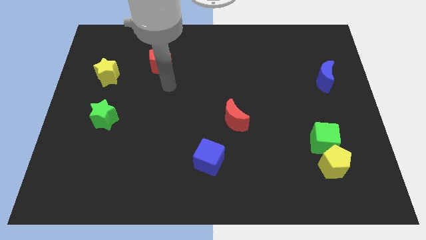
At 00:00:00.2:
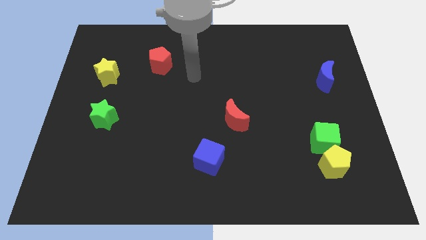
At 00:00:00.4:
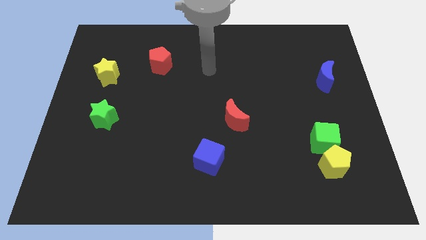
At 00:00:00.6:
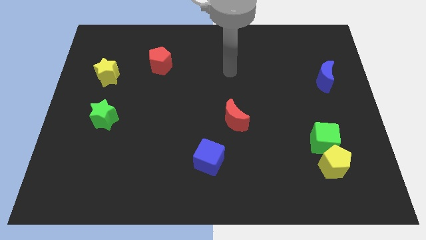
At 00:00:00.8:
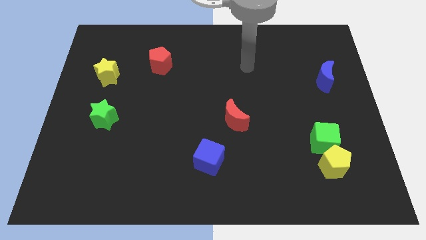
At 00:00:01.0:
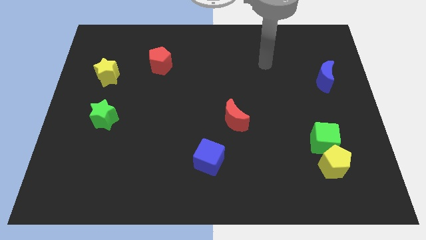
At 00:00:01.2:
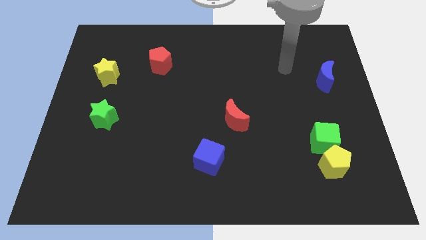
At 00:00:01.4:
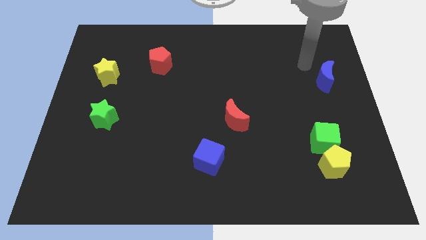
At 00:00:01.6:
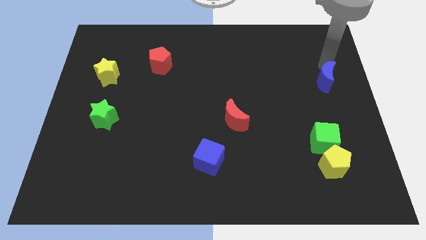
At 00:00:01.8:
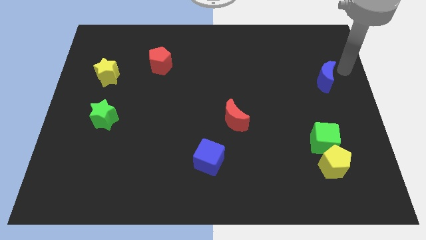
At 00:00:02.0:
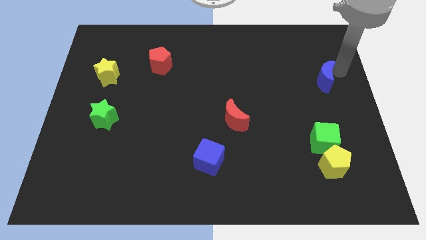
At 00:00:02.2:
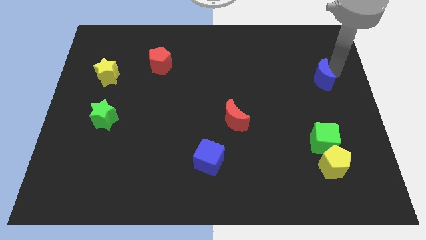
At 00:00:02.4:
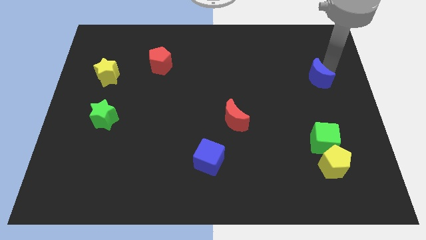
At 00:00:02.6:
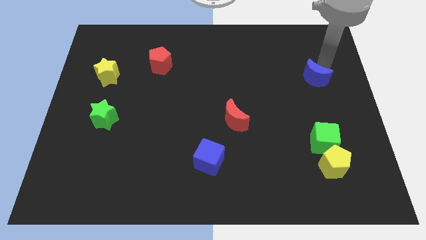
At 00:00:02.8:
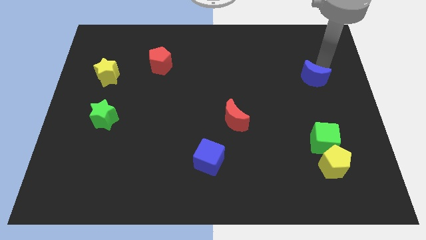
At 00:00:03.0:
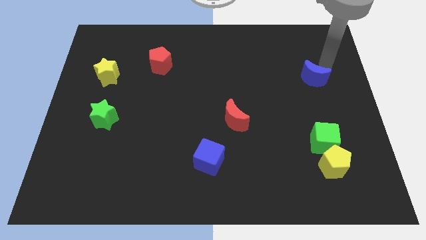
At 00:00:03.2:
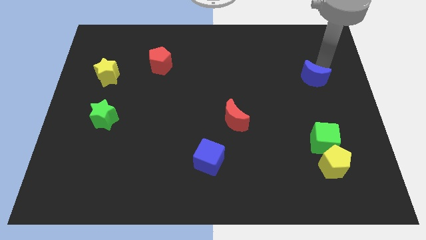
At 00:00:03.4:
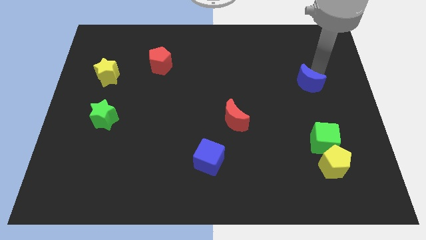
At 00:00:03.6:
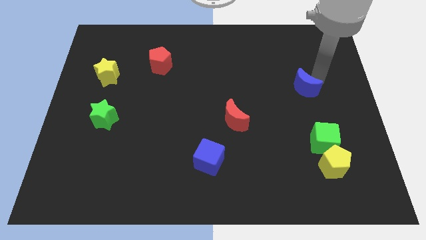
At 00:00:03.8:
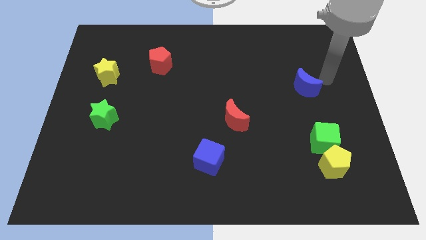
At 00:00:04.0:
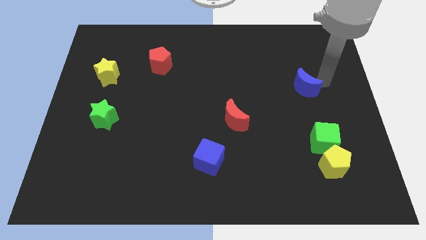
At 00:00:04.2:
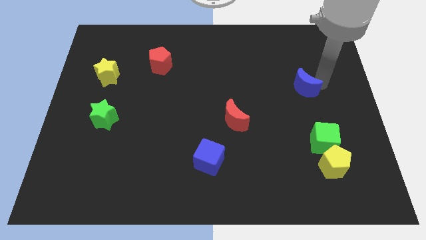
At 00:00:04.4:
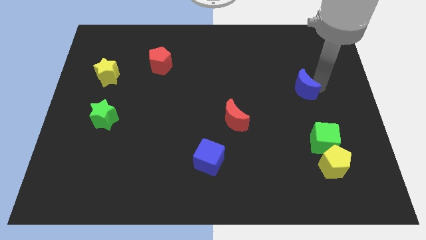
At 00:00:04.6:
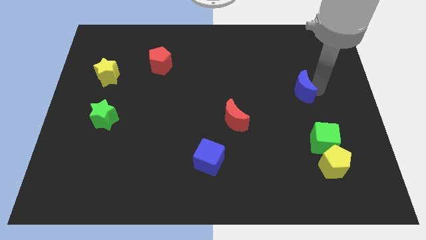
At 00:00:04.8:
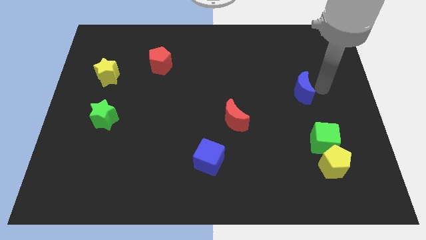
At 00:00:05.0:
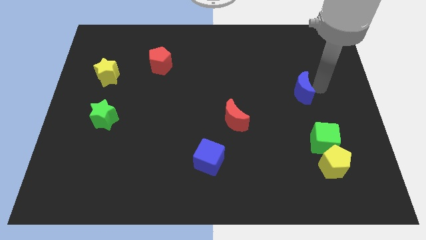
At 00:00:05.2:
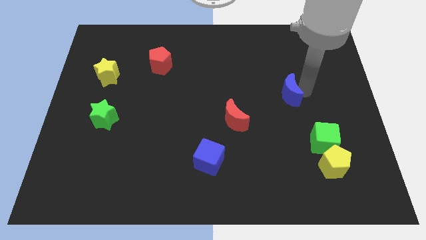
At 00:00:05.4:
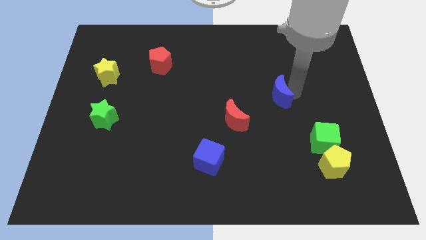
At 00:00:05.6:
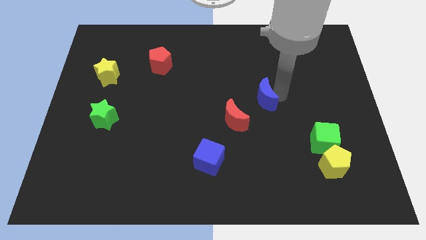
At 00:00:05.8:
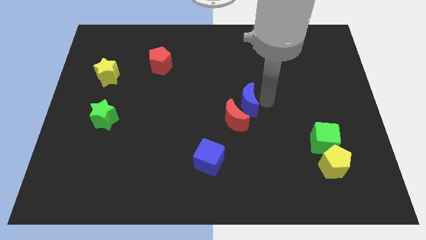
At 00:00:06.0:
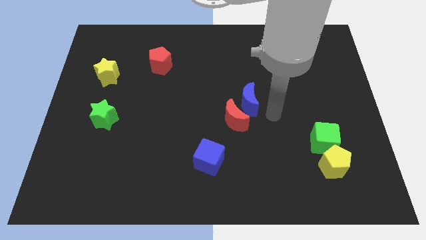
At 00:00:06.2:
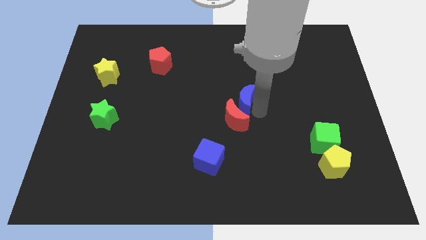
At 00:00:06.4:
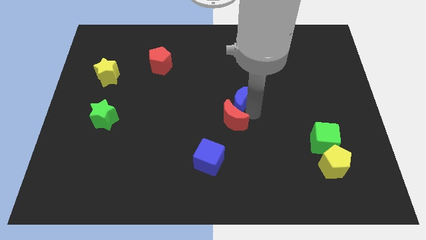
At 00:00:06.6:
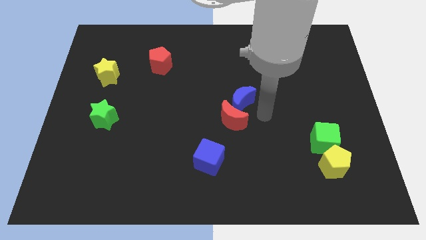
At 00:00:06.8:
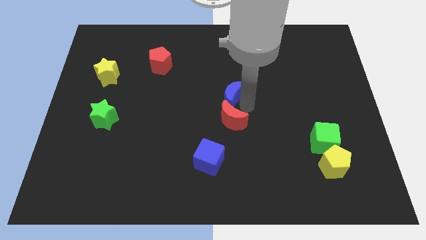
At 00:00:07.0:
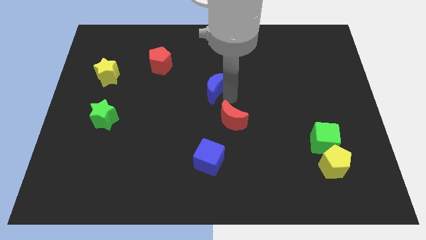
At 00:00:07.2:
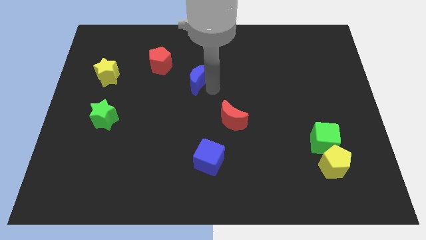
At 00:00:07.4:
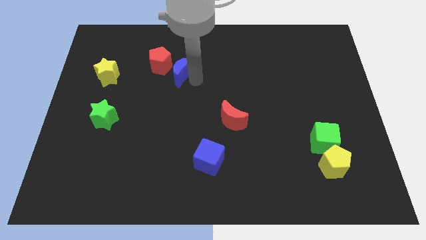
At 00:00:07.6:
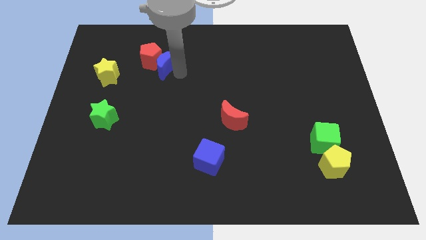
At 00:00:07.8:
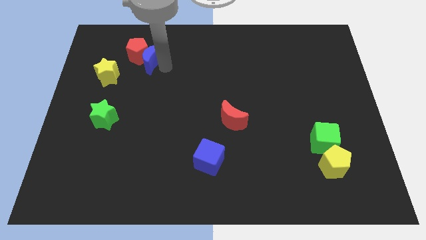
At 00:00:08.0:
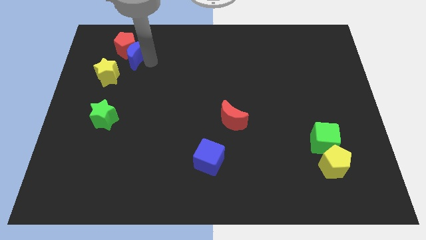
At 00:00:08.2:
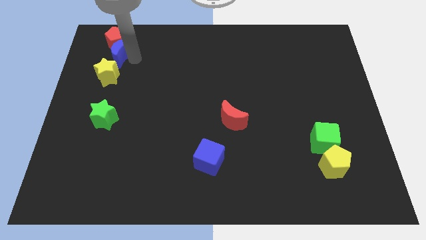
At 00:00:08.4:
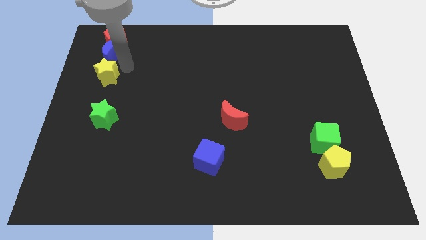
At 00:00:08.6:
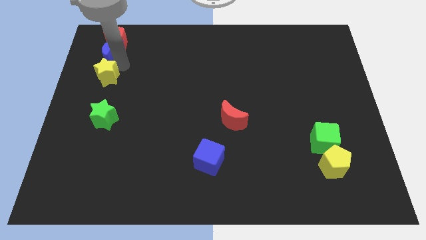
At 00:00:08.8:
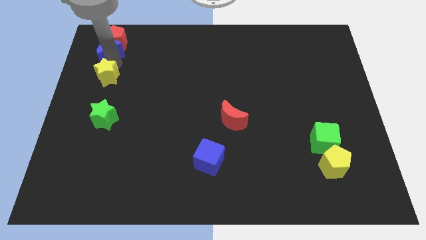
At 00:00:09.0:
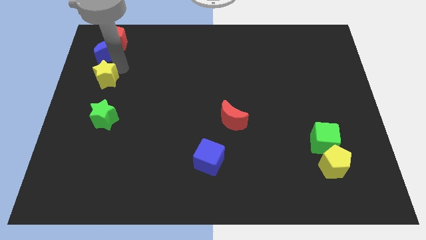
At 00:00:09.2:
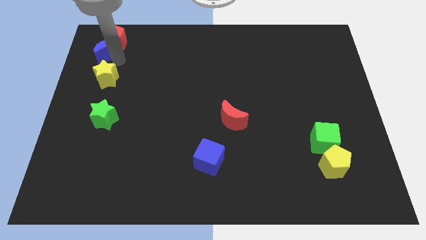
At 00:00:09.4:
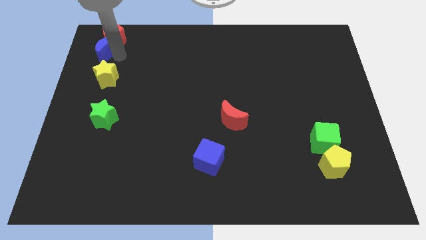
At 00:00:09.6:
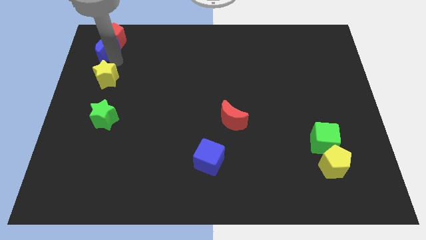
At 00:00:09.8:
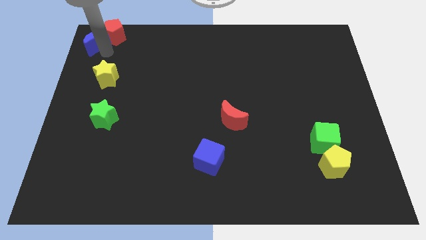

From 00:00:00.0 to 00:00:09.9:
slide the blue moon to the top left of the board

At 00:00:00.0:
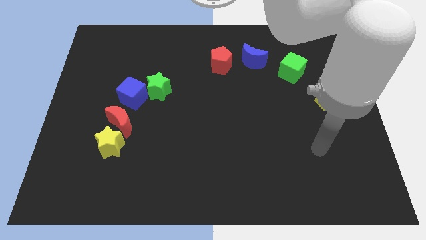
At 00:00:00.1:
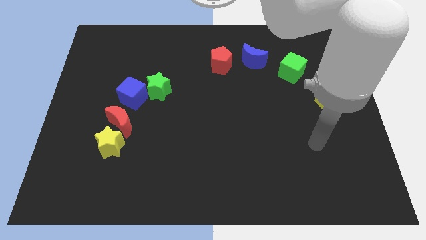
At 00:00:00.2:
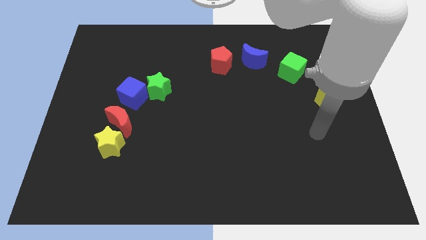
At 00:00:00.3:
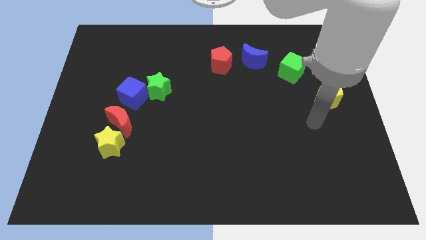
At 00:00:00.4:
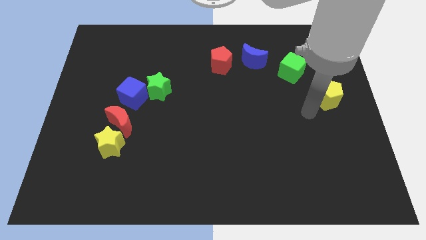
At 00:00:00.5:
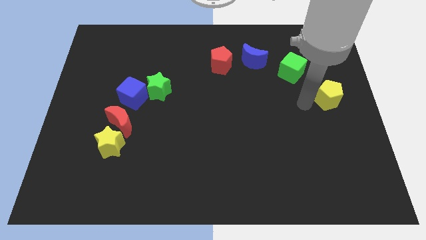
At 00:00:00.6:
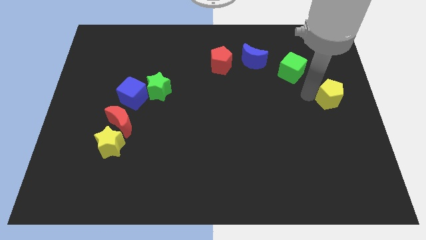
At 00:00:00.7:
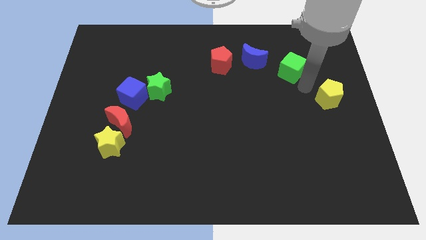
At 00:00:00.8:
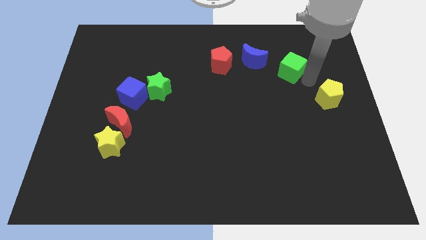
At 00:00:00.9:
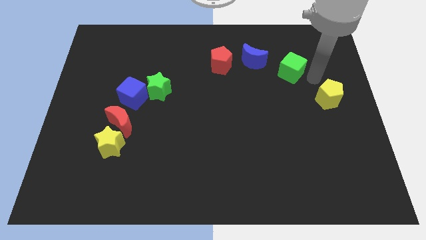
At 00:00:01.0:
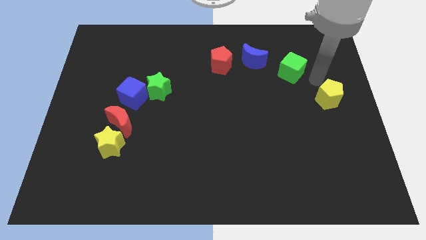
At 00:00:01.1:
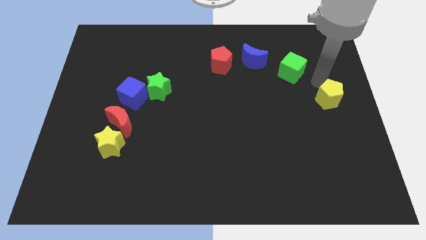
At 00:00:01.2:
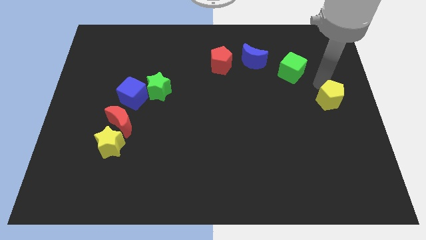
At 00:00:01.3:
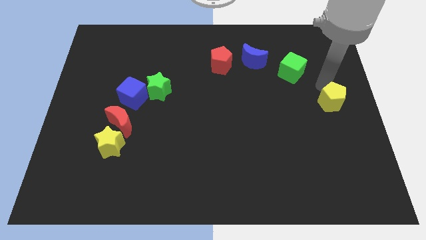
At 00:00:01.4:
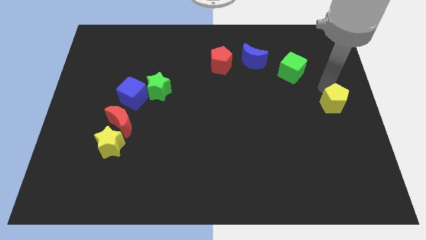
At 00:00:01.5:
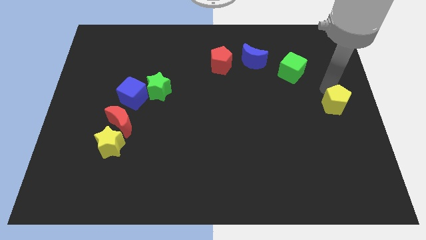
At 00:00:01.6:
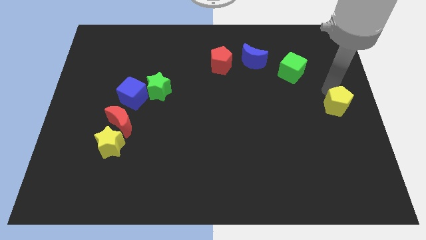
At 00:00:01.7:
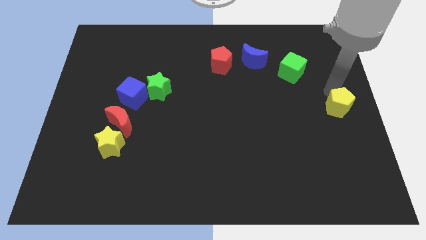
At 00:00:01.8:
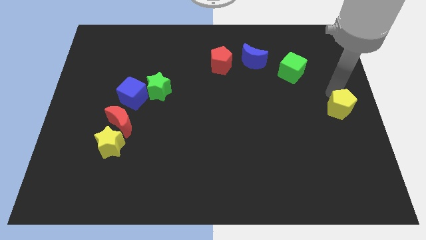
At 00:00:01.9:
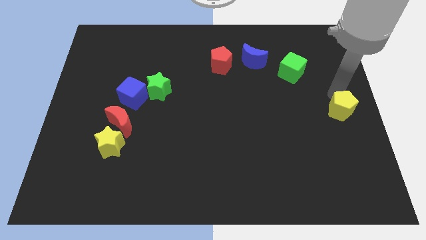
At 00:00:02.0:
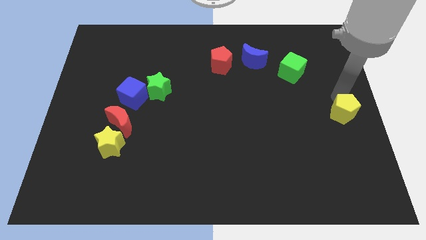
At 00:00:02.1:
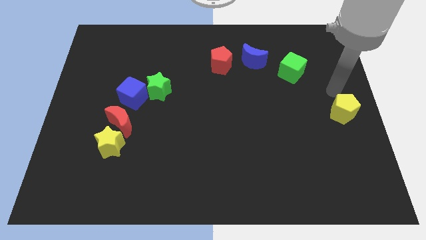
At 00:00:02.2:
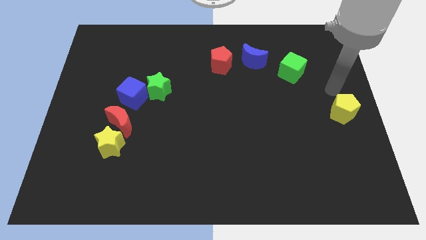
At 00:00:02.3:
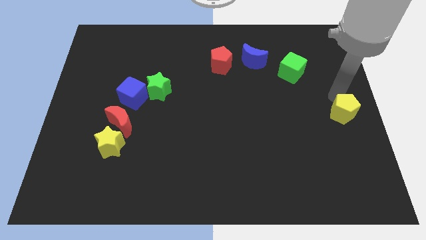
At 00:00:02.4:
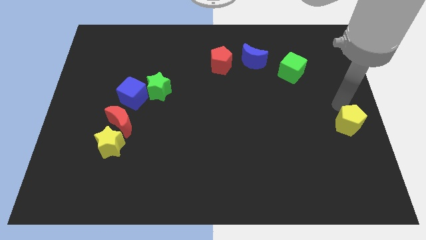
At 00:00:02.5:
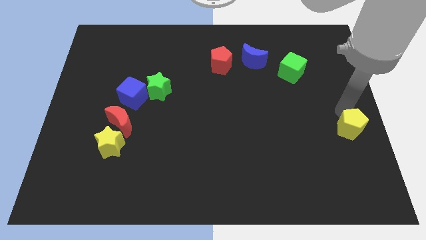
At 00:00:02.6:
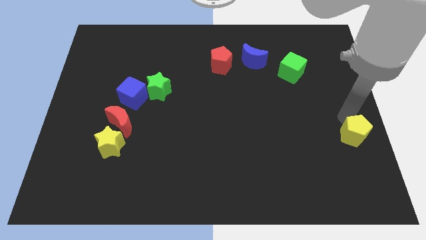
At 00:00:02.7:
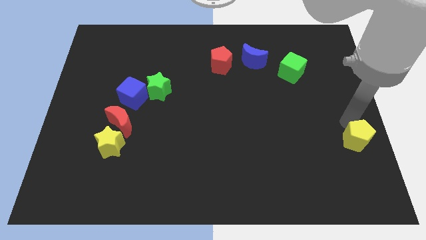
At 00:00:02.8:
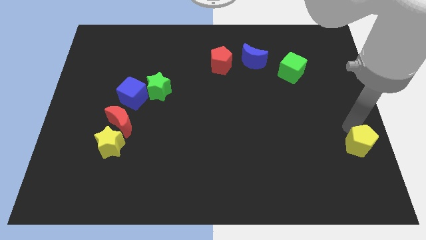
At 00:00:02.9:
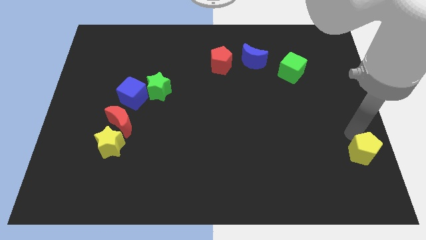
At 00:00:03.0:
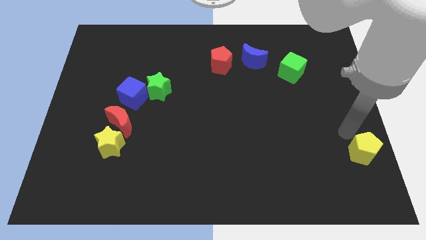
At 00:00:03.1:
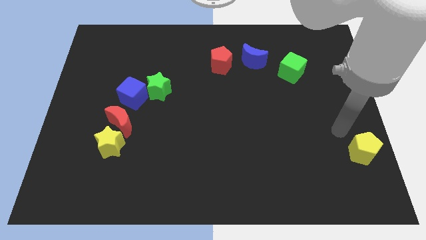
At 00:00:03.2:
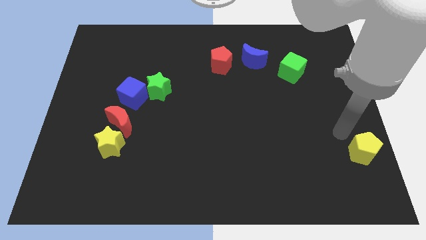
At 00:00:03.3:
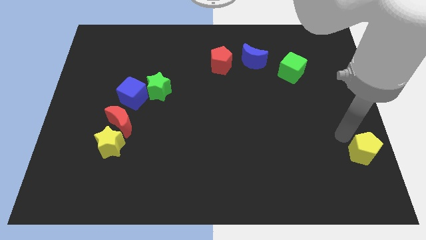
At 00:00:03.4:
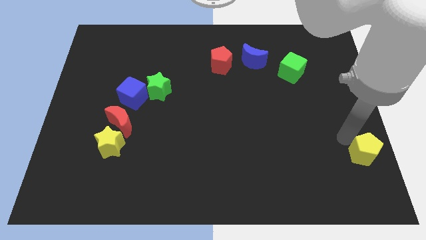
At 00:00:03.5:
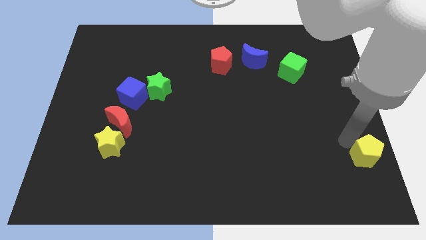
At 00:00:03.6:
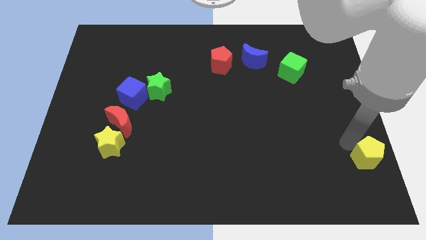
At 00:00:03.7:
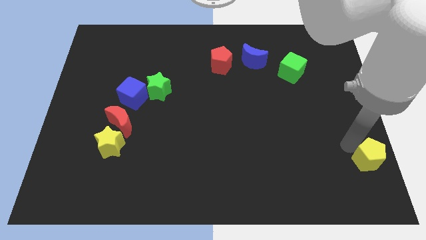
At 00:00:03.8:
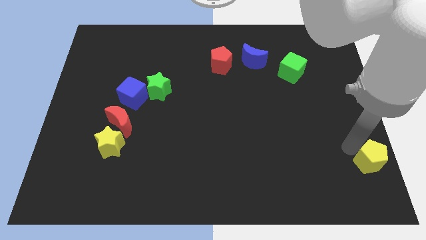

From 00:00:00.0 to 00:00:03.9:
move the yellow pentagon to the bottom right
